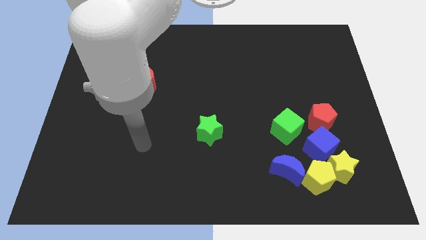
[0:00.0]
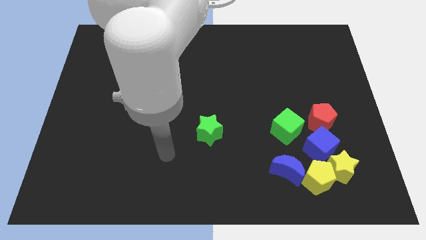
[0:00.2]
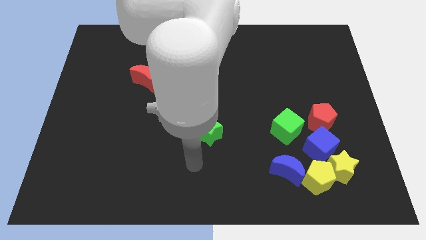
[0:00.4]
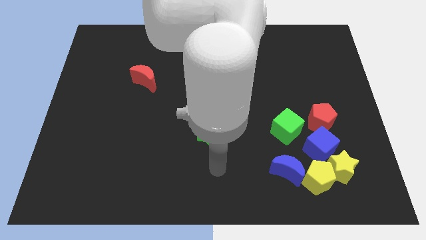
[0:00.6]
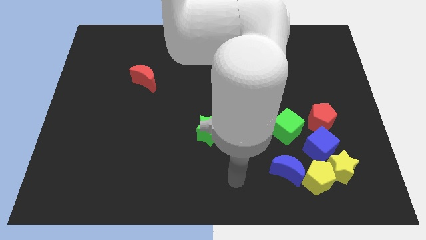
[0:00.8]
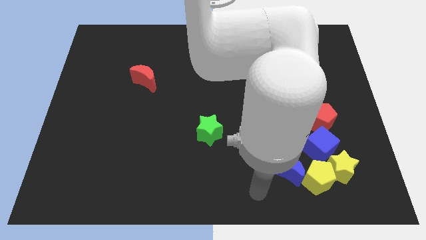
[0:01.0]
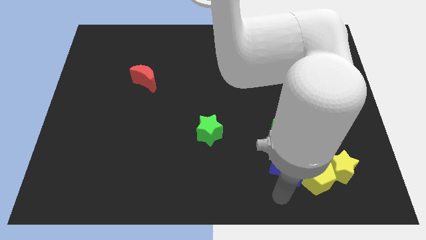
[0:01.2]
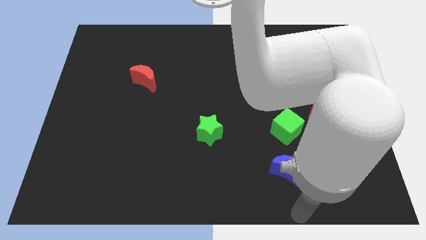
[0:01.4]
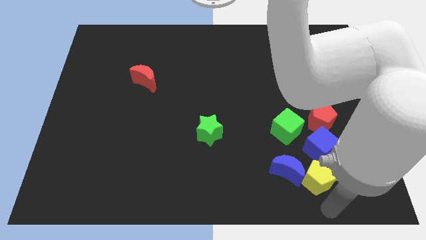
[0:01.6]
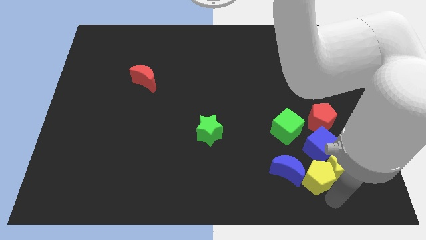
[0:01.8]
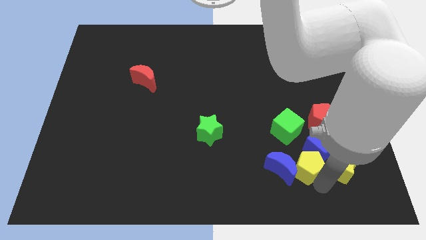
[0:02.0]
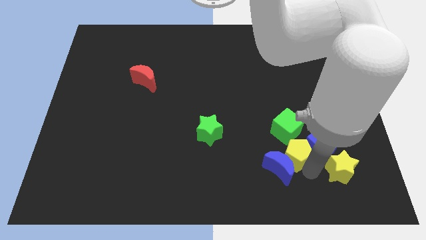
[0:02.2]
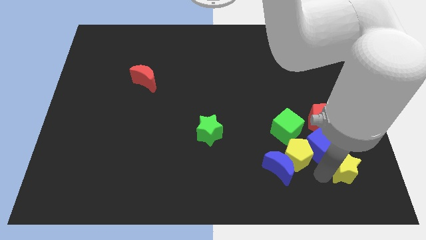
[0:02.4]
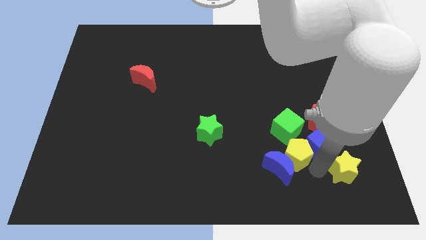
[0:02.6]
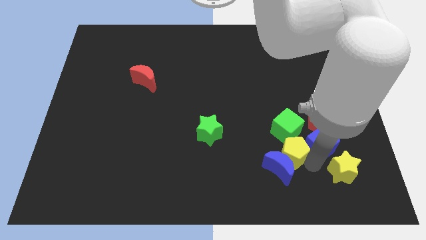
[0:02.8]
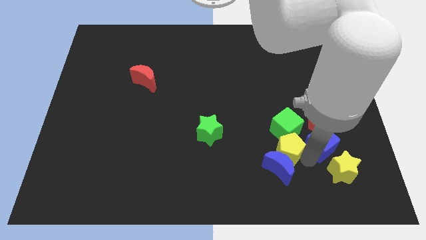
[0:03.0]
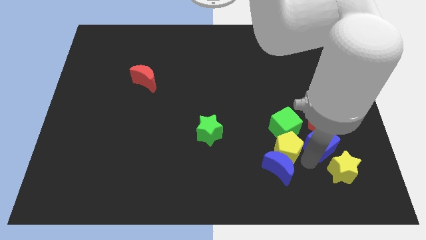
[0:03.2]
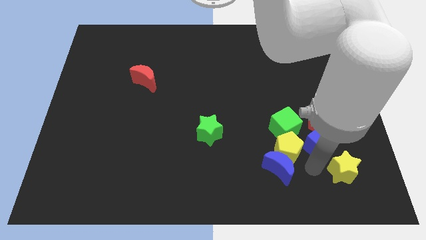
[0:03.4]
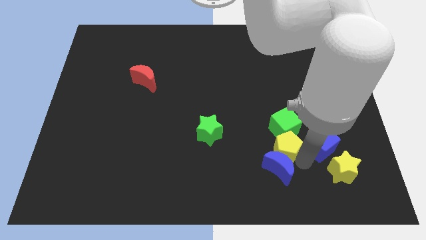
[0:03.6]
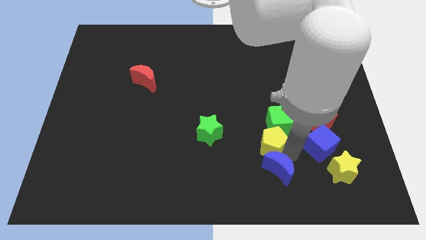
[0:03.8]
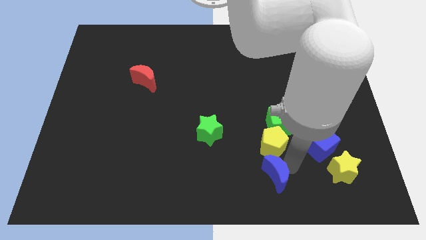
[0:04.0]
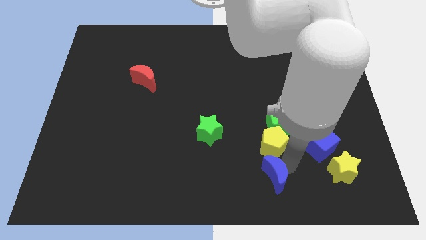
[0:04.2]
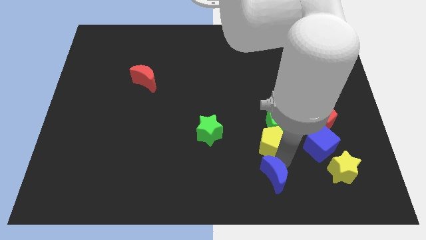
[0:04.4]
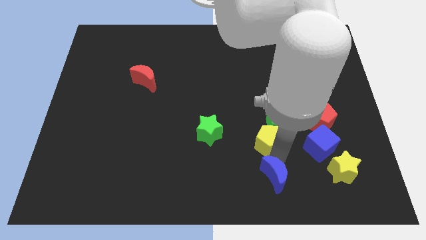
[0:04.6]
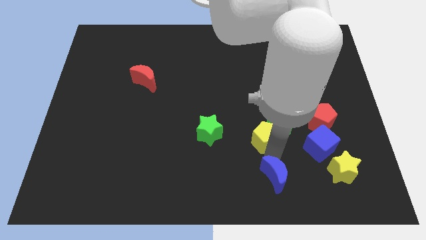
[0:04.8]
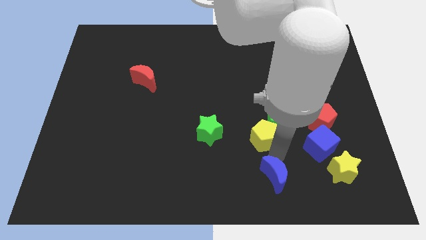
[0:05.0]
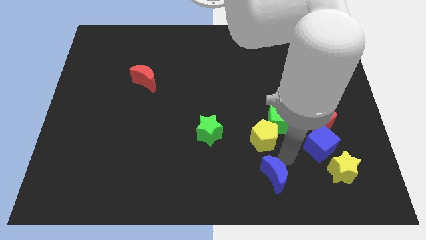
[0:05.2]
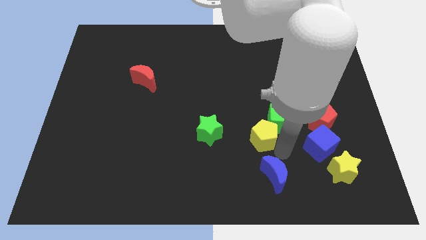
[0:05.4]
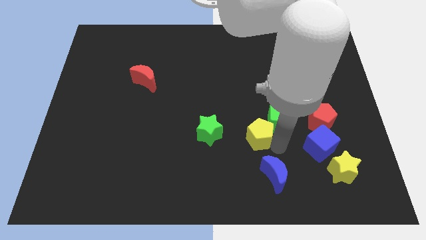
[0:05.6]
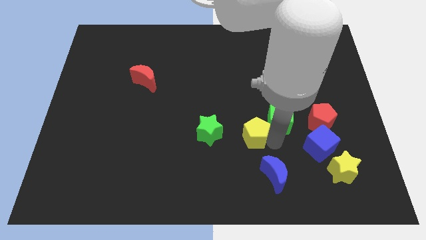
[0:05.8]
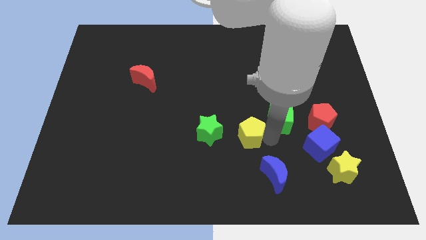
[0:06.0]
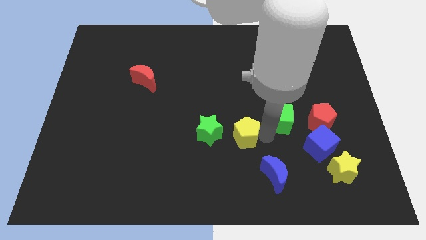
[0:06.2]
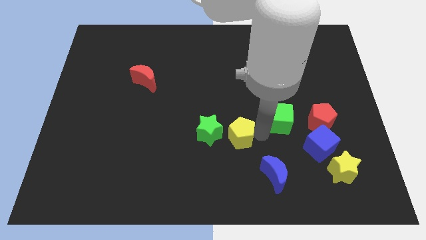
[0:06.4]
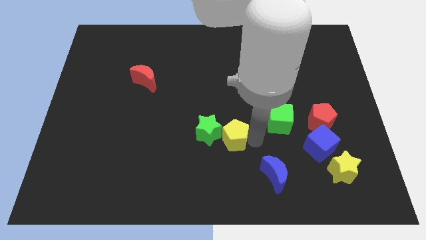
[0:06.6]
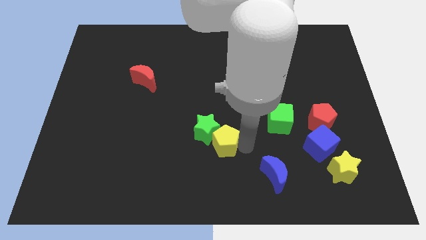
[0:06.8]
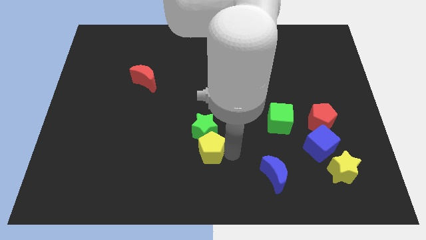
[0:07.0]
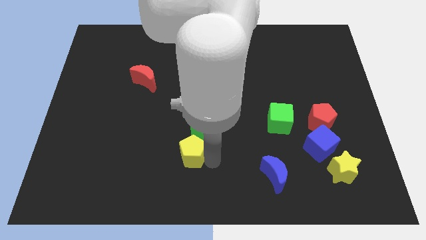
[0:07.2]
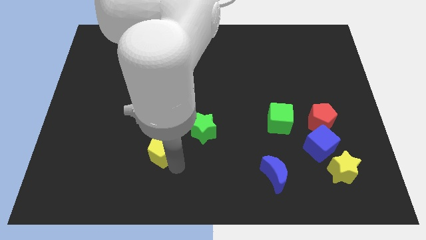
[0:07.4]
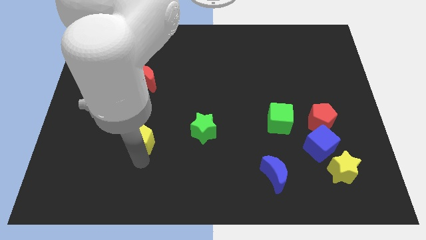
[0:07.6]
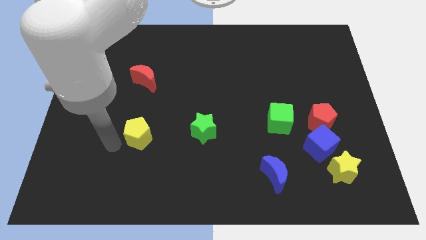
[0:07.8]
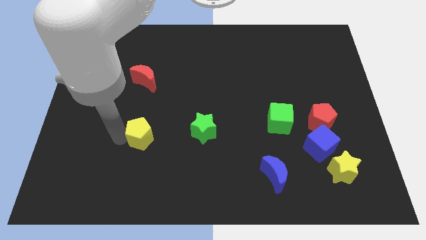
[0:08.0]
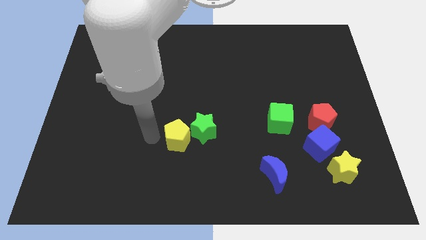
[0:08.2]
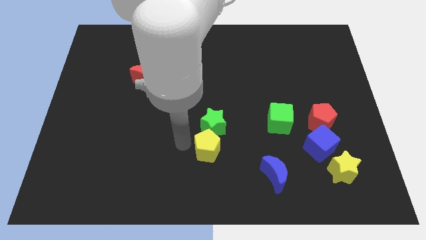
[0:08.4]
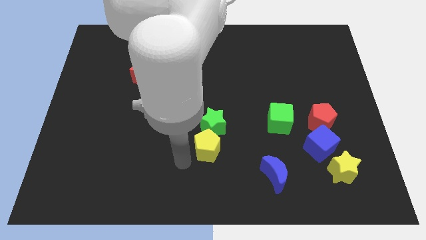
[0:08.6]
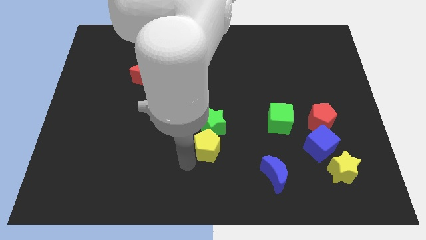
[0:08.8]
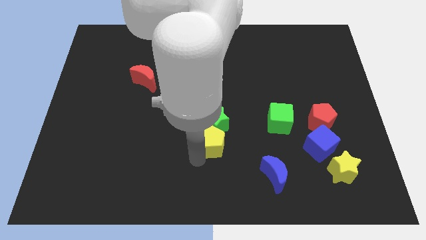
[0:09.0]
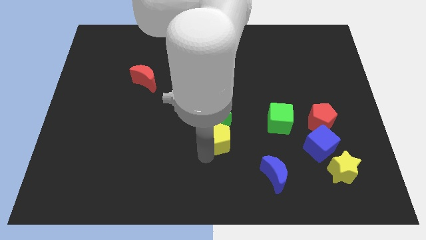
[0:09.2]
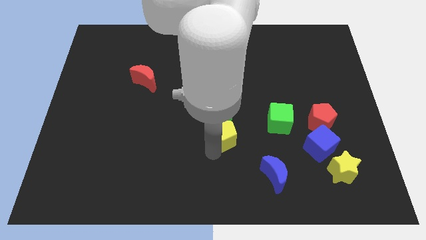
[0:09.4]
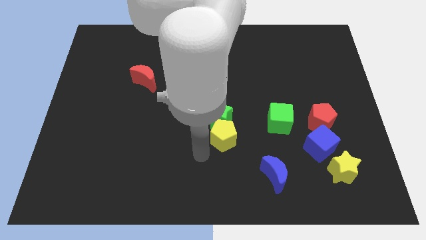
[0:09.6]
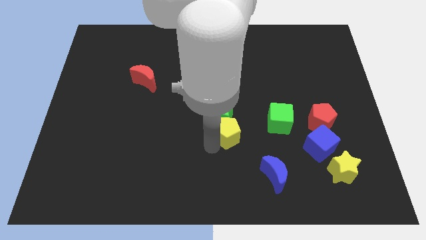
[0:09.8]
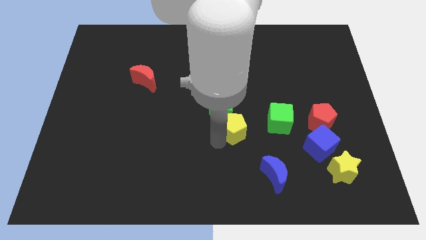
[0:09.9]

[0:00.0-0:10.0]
move the yellow pentagon upwards and then left

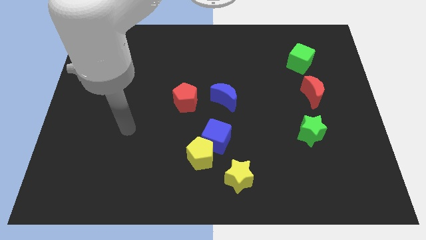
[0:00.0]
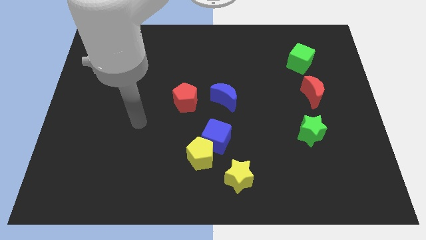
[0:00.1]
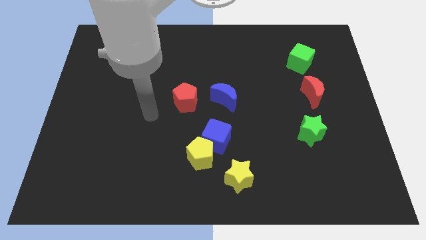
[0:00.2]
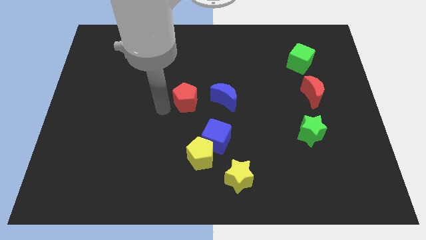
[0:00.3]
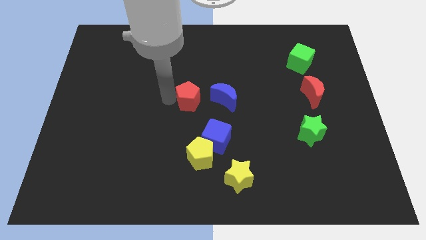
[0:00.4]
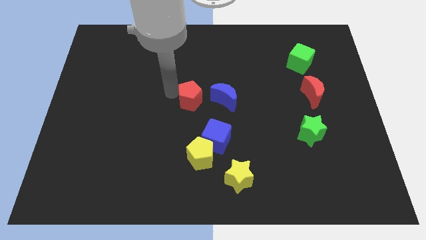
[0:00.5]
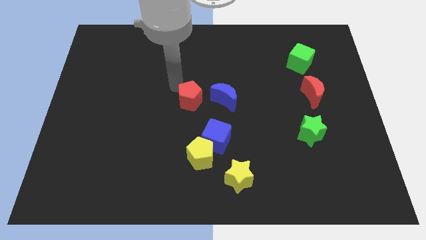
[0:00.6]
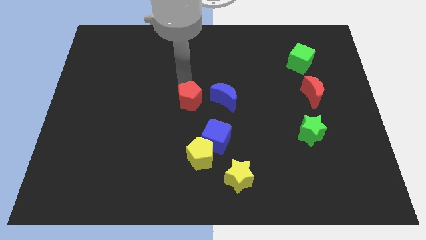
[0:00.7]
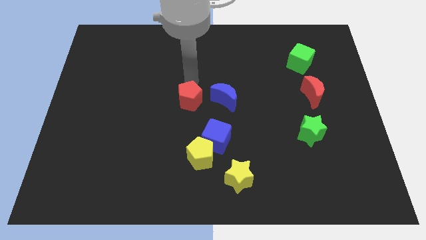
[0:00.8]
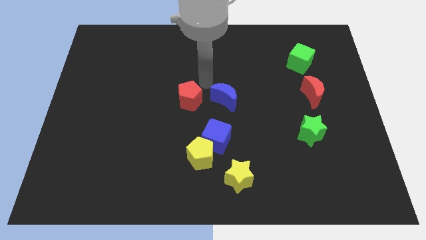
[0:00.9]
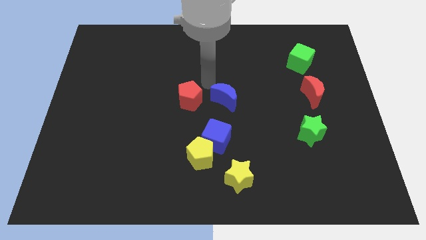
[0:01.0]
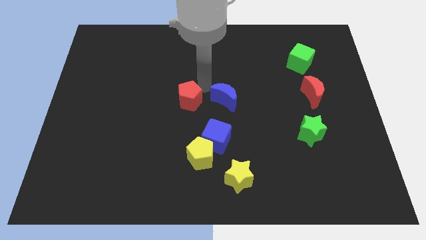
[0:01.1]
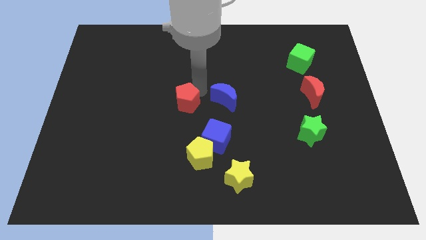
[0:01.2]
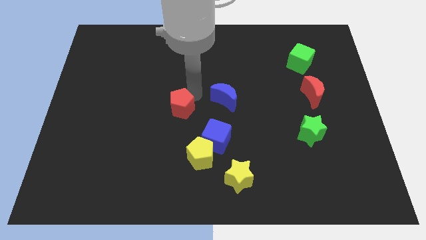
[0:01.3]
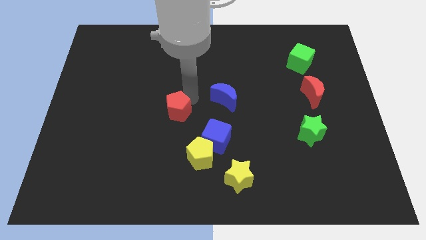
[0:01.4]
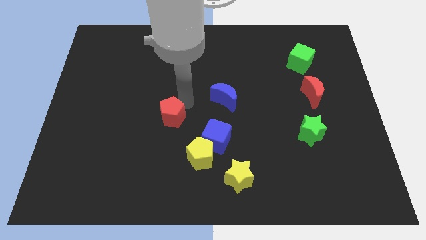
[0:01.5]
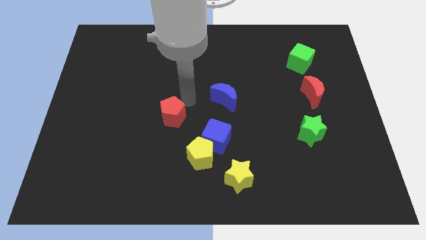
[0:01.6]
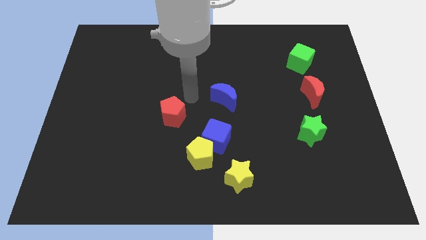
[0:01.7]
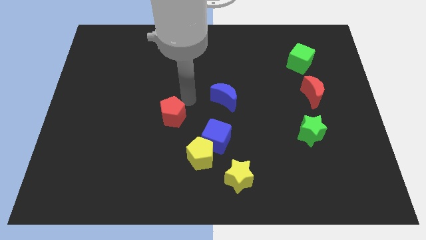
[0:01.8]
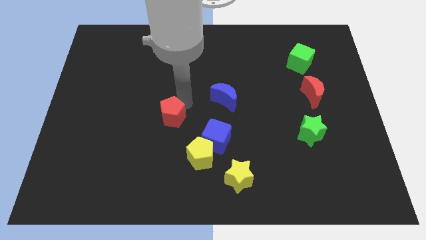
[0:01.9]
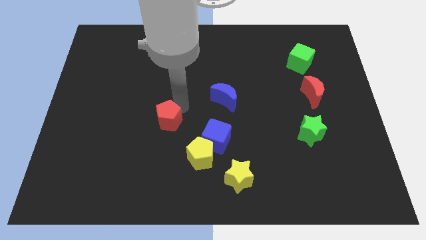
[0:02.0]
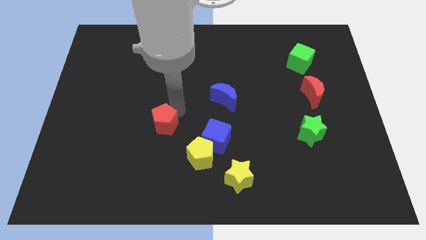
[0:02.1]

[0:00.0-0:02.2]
move the red pentagon somewhat downwards and then to the left

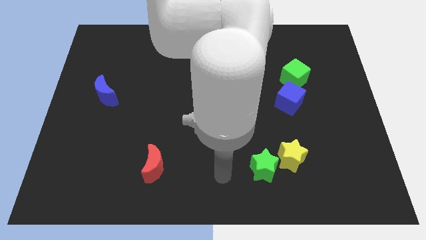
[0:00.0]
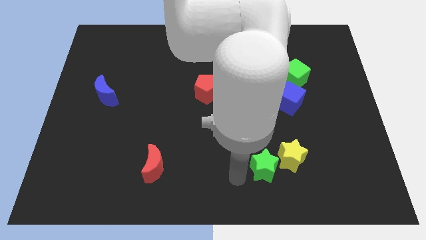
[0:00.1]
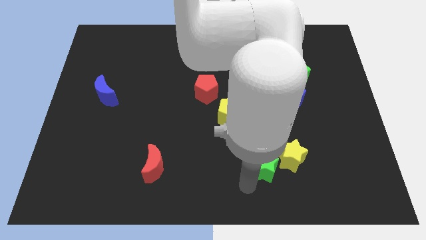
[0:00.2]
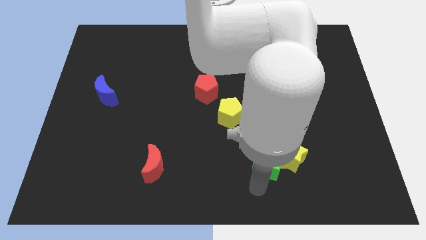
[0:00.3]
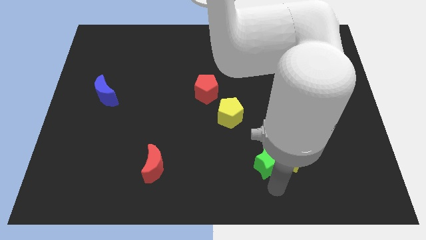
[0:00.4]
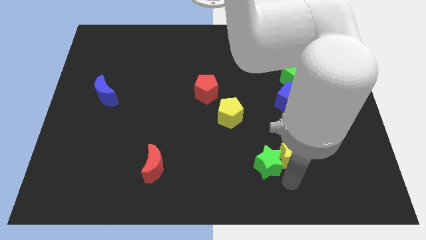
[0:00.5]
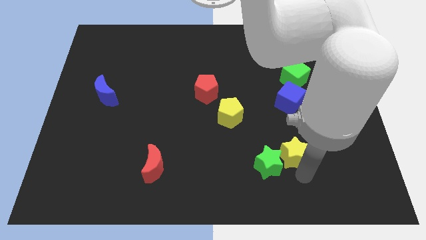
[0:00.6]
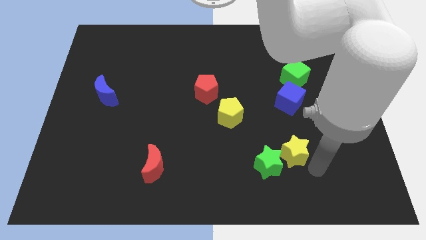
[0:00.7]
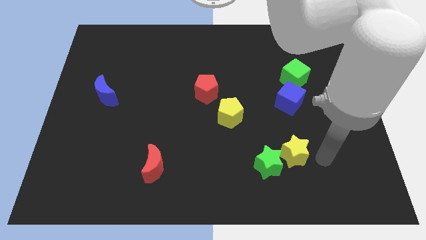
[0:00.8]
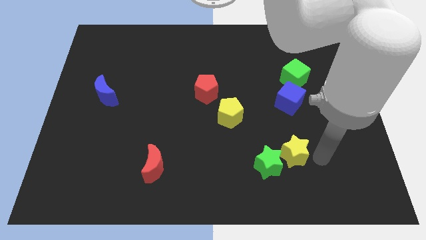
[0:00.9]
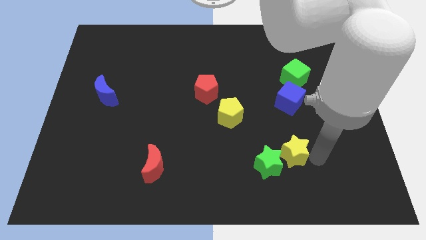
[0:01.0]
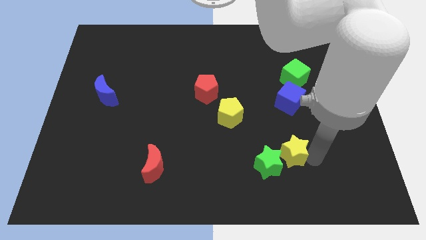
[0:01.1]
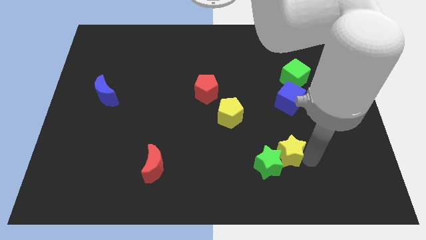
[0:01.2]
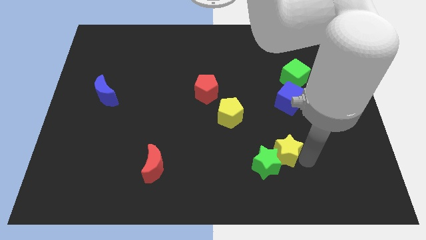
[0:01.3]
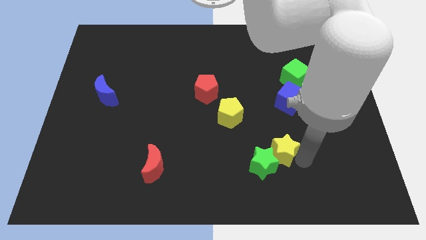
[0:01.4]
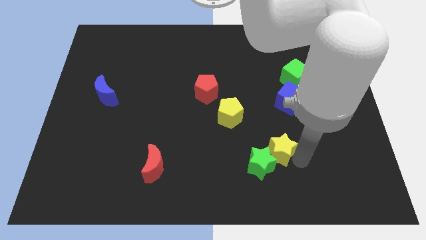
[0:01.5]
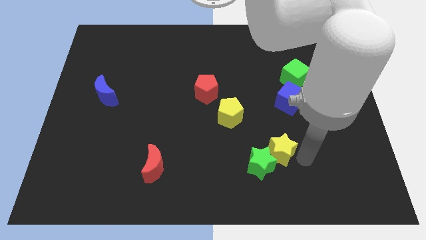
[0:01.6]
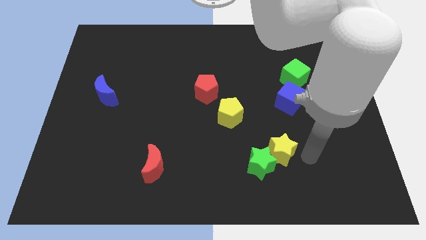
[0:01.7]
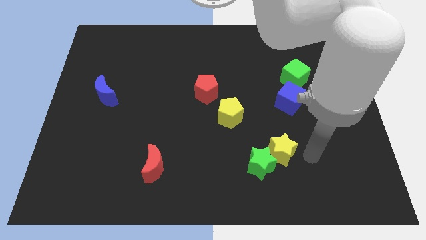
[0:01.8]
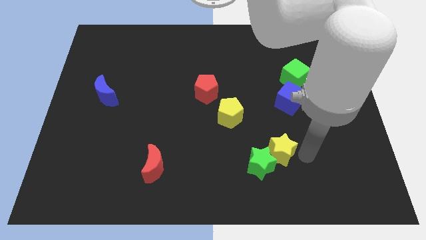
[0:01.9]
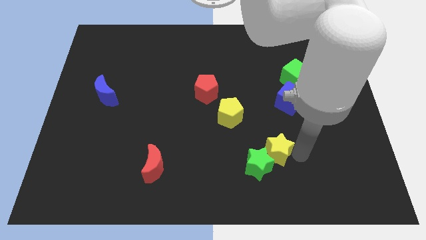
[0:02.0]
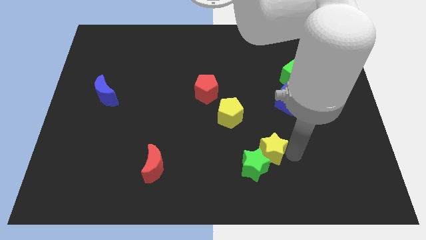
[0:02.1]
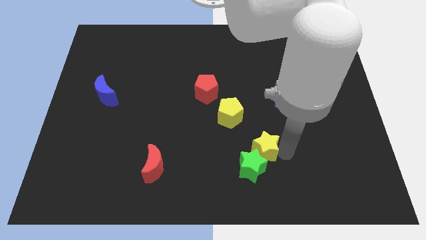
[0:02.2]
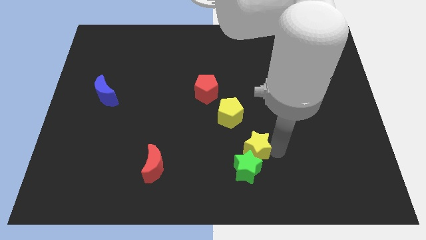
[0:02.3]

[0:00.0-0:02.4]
slightly move the yellow star to the left
